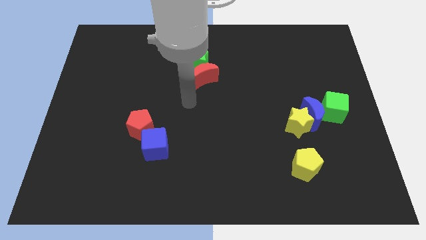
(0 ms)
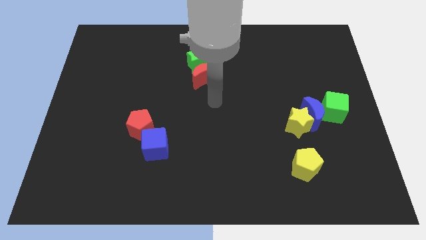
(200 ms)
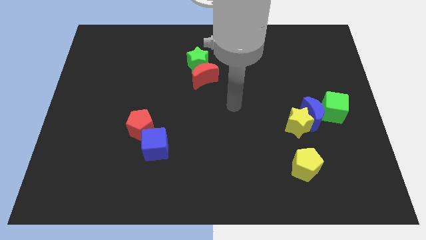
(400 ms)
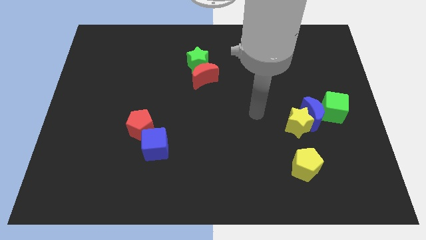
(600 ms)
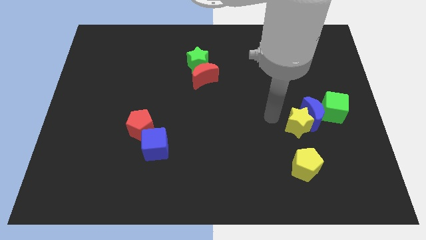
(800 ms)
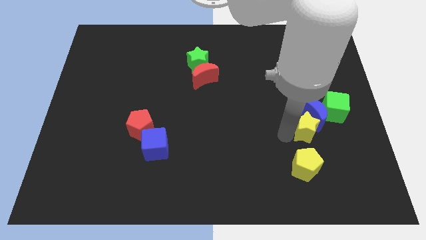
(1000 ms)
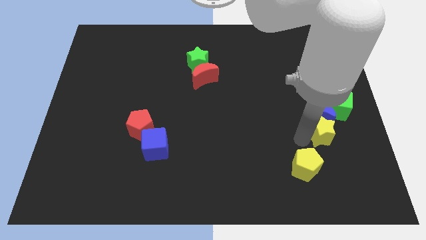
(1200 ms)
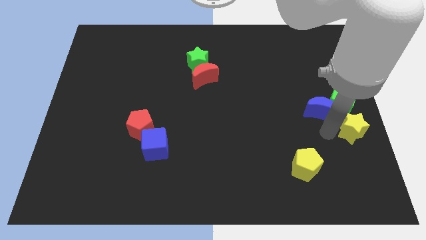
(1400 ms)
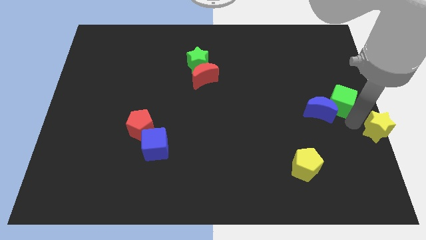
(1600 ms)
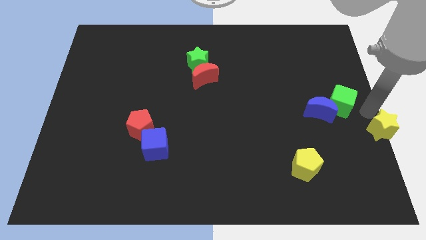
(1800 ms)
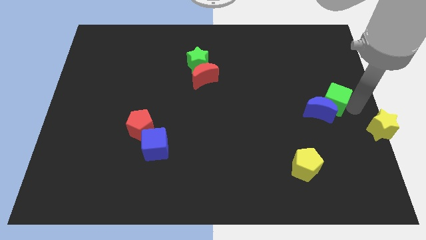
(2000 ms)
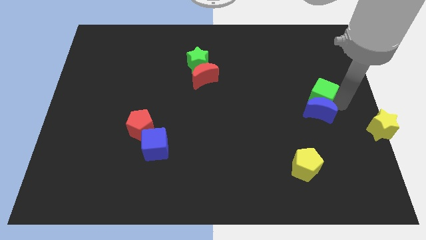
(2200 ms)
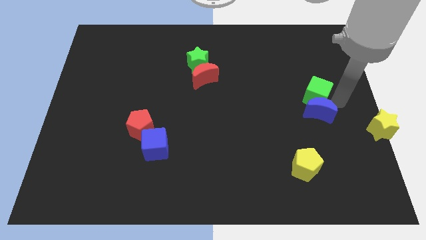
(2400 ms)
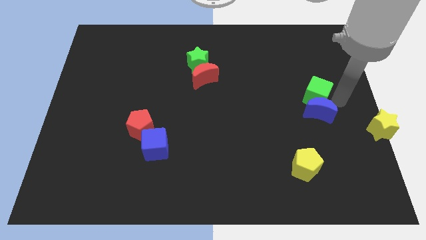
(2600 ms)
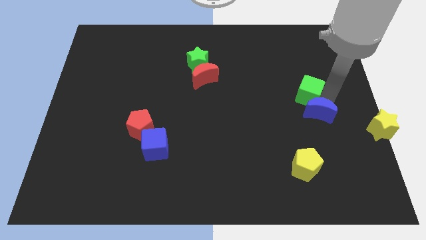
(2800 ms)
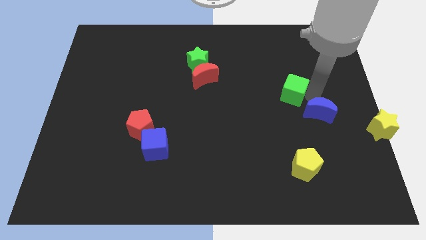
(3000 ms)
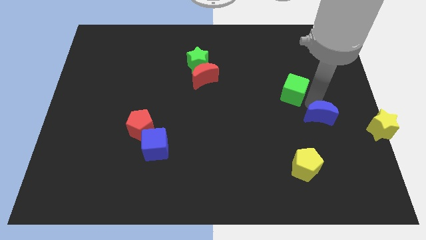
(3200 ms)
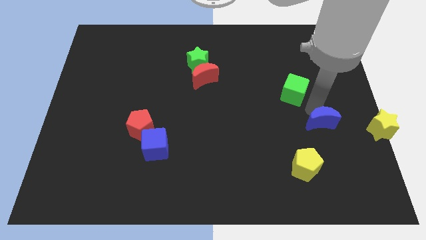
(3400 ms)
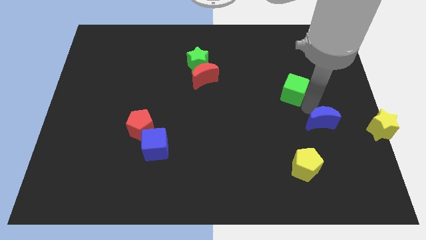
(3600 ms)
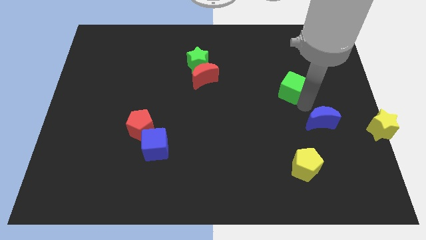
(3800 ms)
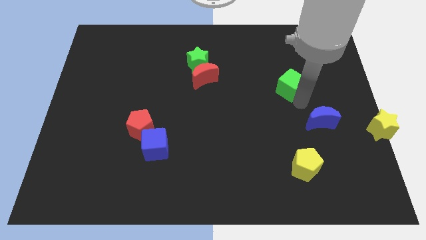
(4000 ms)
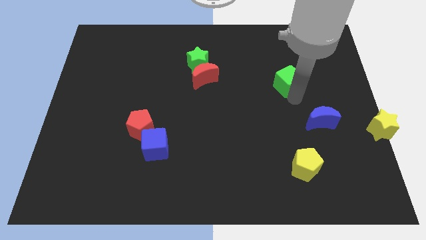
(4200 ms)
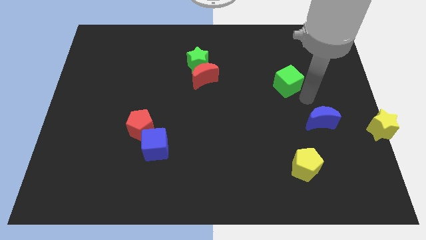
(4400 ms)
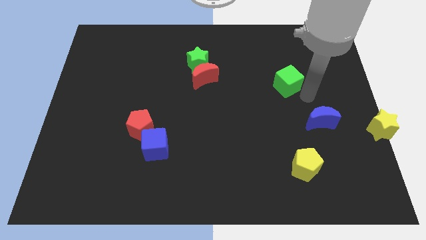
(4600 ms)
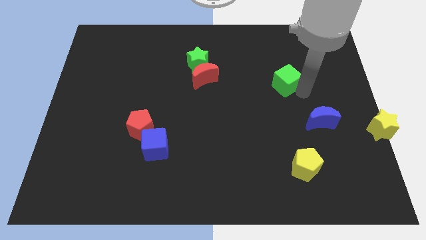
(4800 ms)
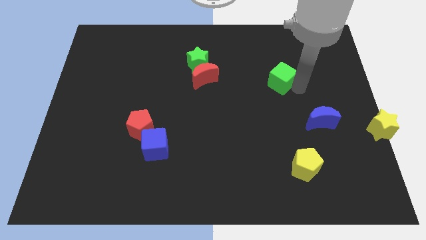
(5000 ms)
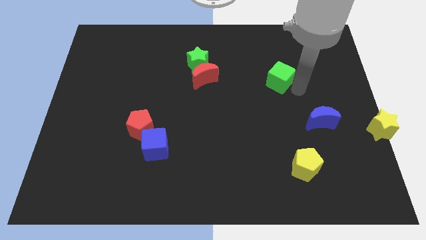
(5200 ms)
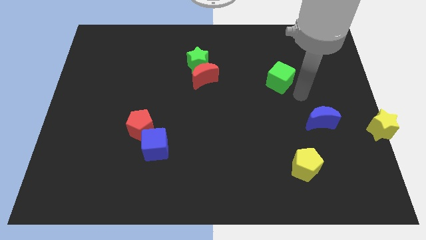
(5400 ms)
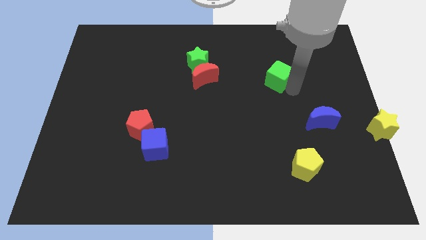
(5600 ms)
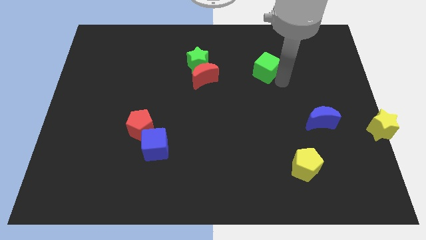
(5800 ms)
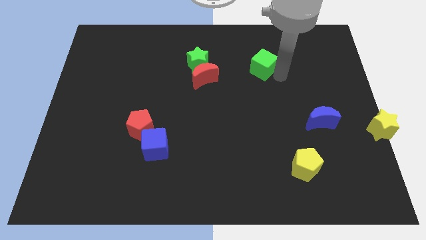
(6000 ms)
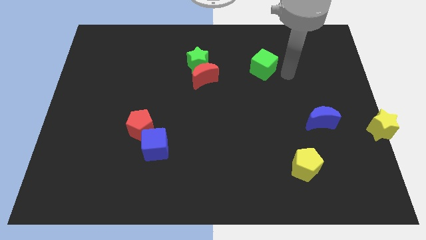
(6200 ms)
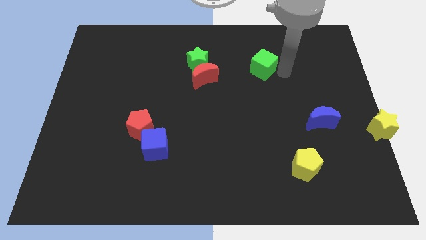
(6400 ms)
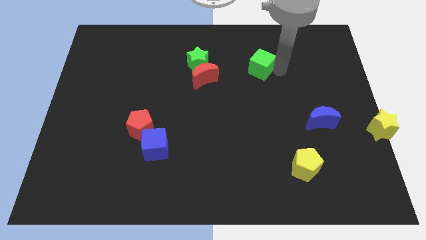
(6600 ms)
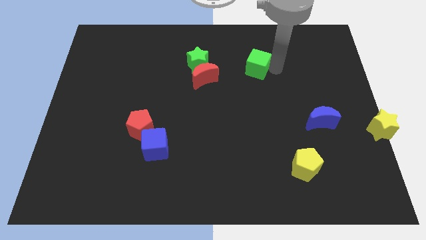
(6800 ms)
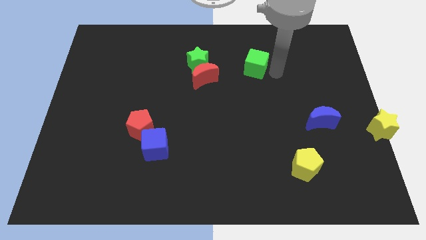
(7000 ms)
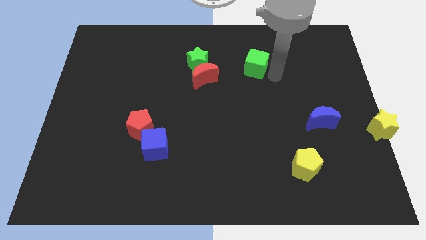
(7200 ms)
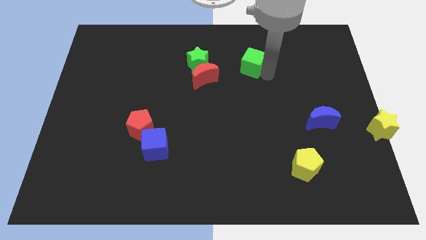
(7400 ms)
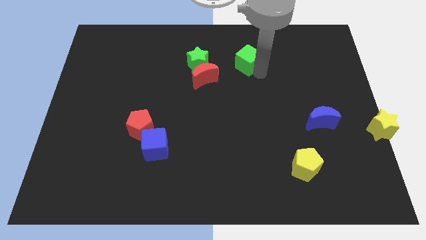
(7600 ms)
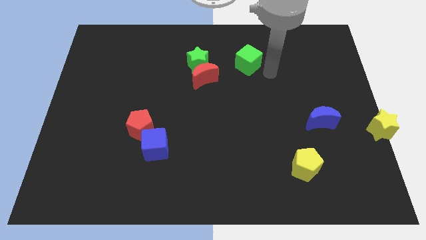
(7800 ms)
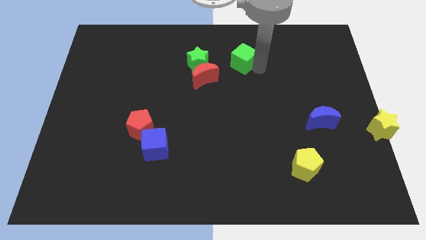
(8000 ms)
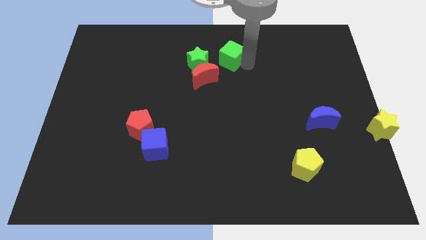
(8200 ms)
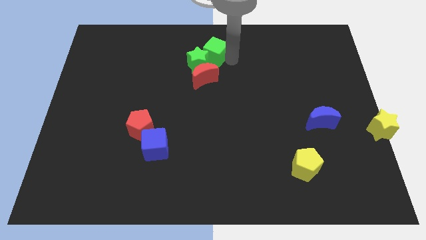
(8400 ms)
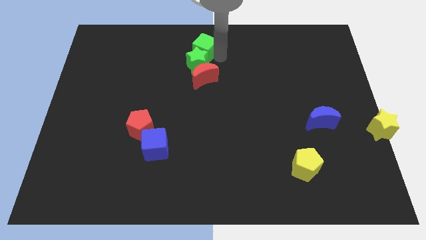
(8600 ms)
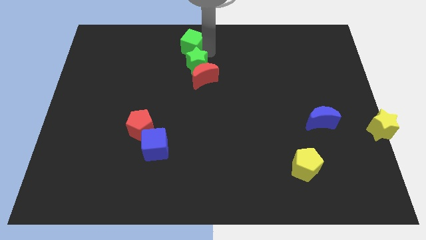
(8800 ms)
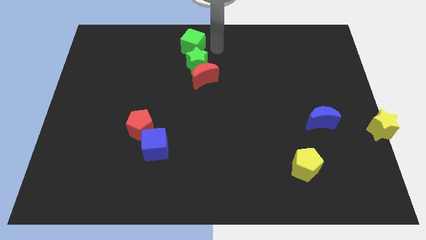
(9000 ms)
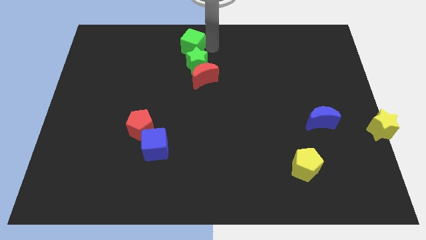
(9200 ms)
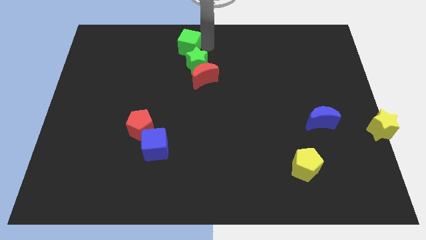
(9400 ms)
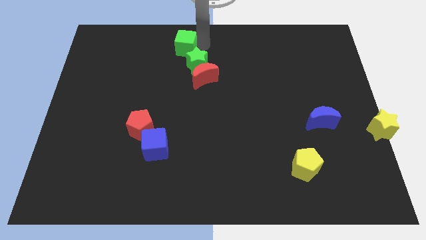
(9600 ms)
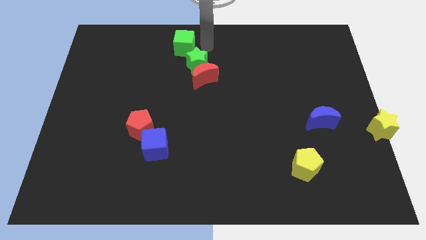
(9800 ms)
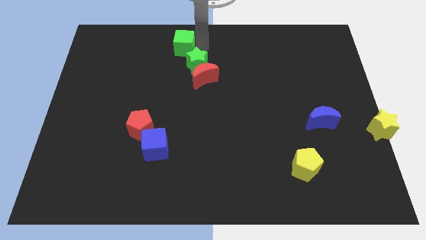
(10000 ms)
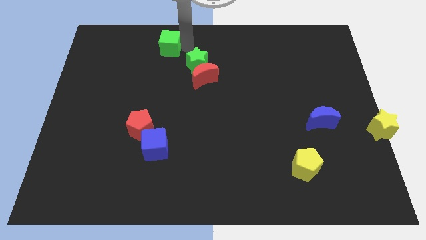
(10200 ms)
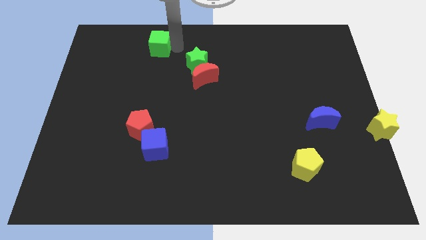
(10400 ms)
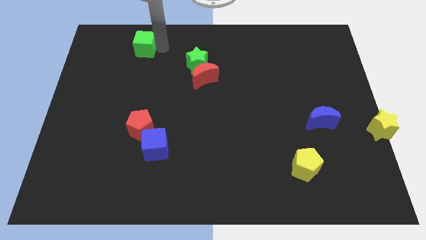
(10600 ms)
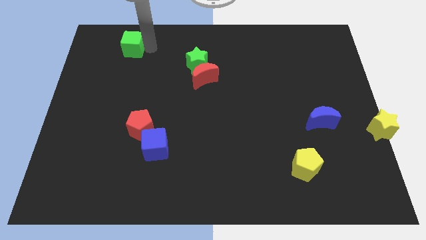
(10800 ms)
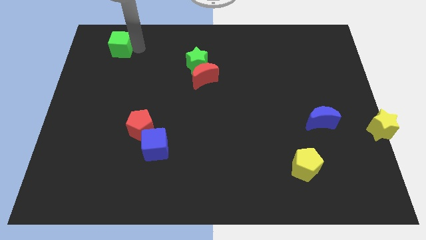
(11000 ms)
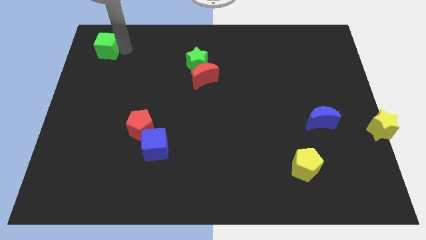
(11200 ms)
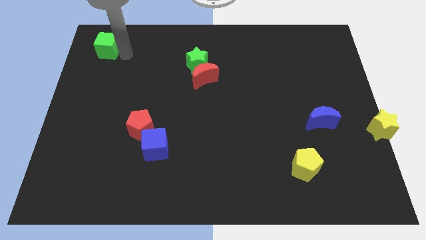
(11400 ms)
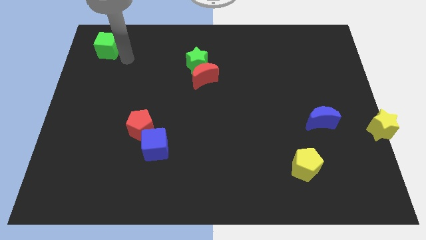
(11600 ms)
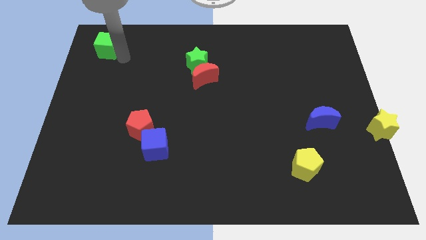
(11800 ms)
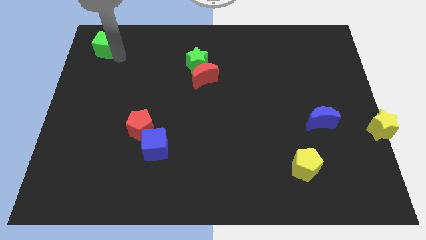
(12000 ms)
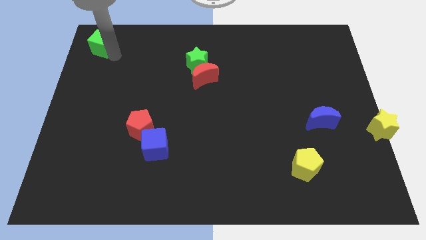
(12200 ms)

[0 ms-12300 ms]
slide the green cube to the top left of the board
